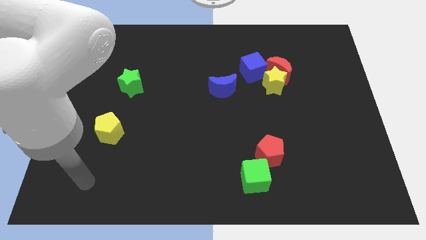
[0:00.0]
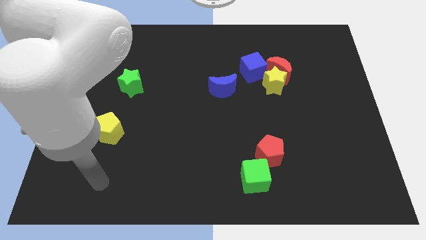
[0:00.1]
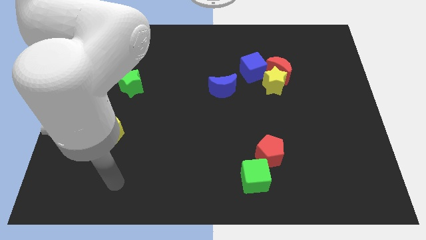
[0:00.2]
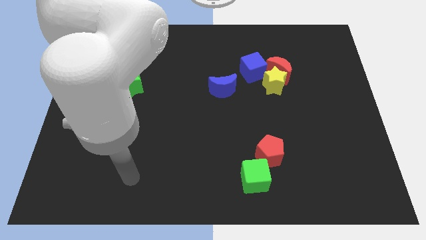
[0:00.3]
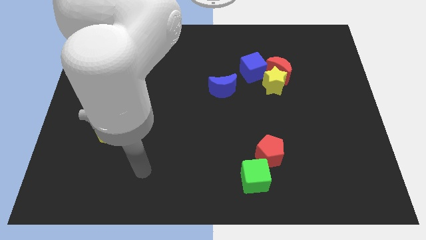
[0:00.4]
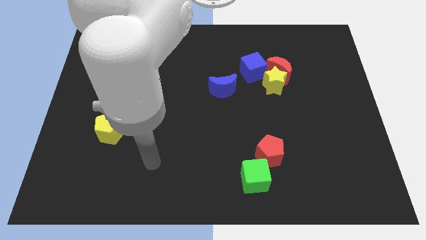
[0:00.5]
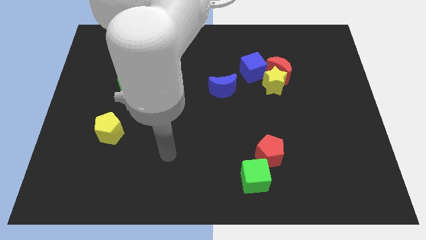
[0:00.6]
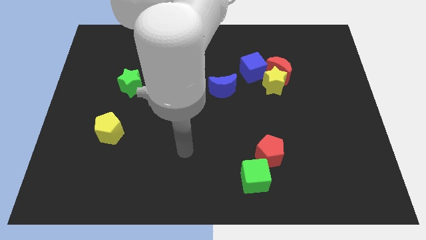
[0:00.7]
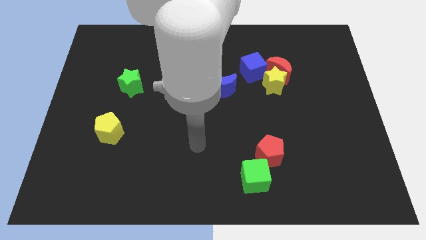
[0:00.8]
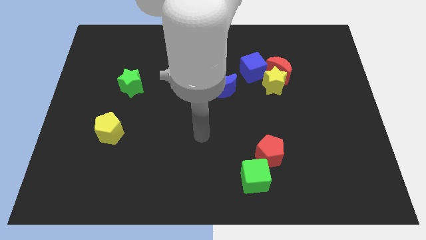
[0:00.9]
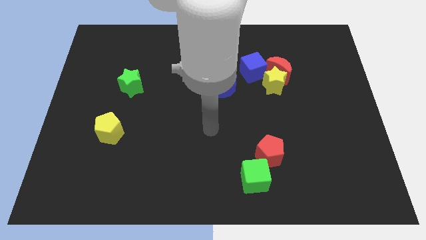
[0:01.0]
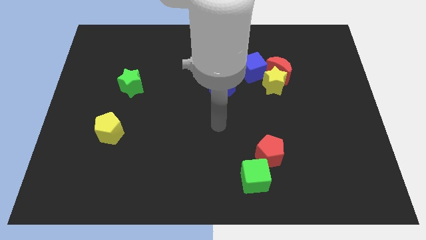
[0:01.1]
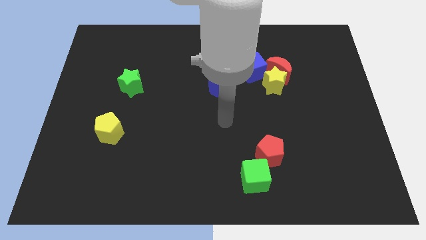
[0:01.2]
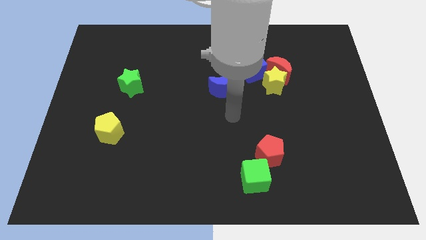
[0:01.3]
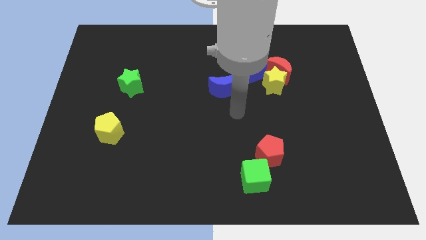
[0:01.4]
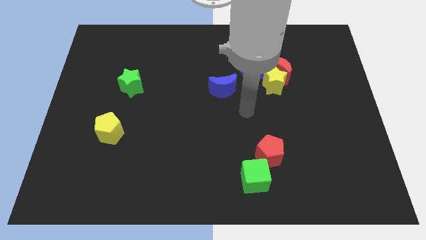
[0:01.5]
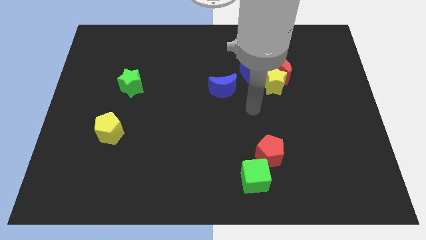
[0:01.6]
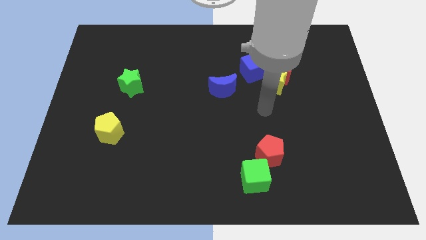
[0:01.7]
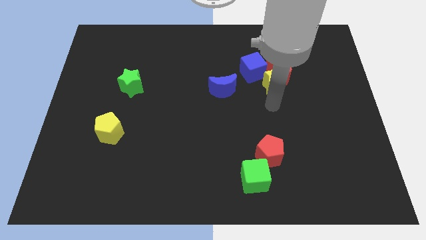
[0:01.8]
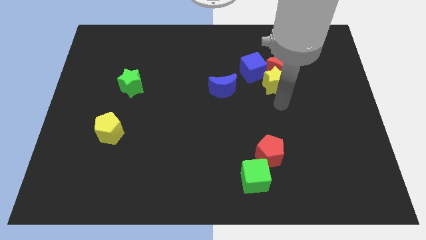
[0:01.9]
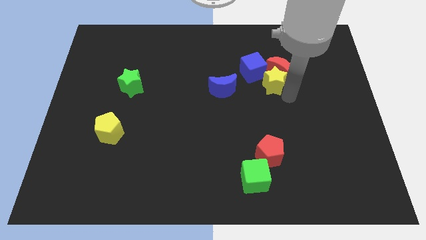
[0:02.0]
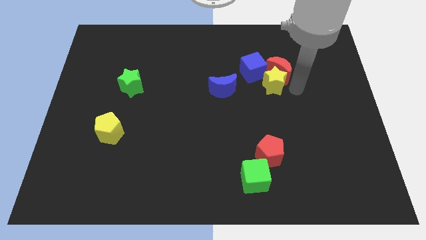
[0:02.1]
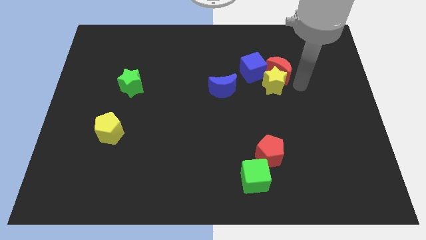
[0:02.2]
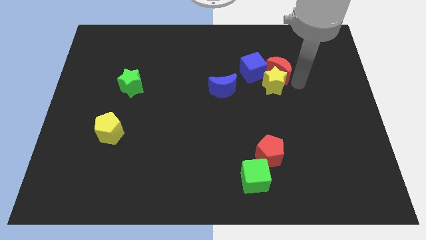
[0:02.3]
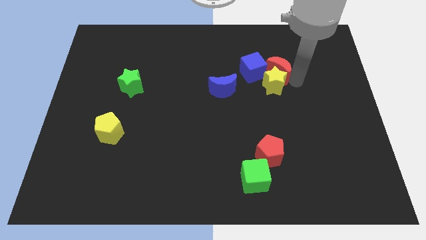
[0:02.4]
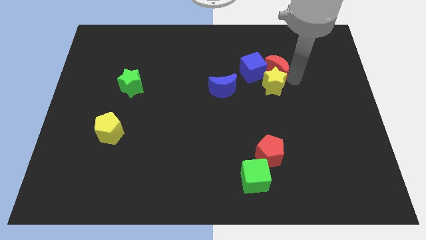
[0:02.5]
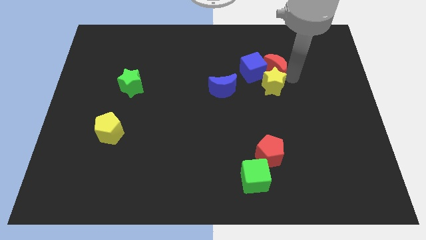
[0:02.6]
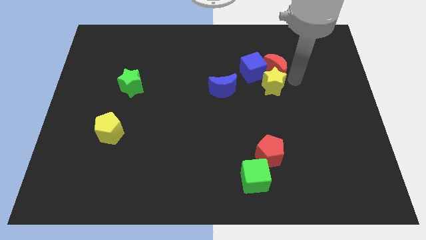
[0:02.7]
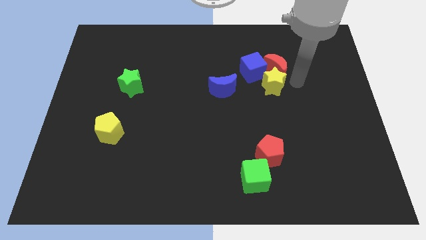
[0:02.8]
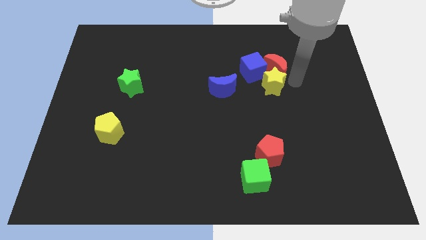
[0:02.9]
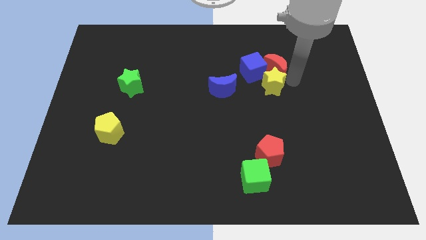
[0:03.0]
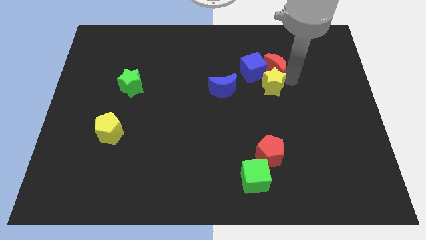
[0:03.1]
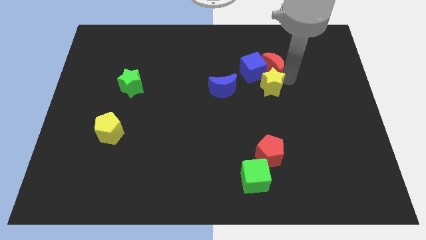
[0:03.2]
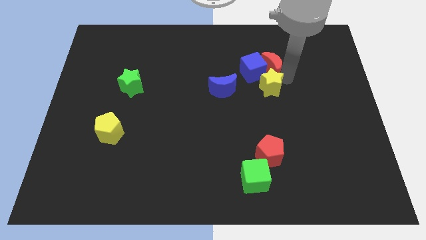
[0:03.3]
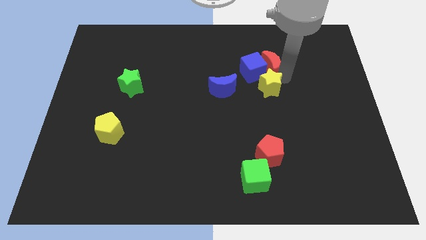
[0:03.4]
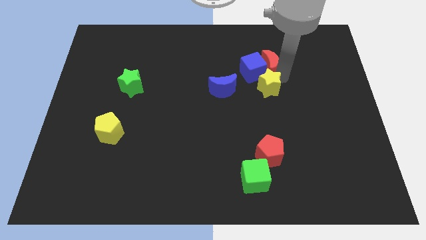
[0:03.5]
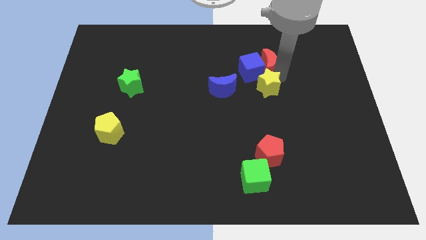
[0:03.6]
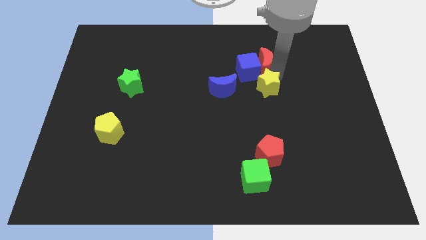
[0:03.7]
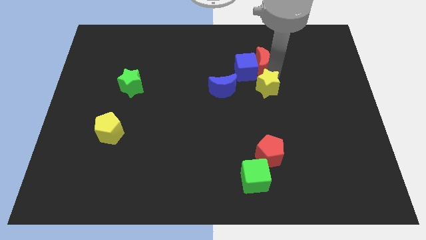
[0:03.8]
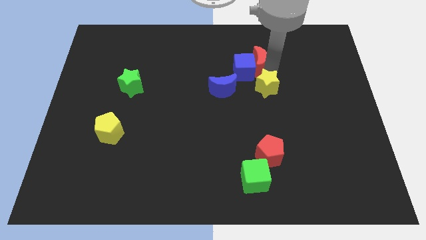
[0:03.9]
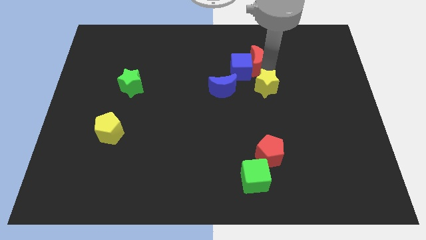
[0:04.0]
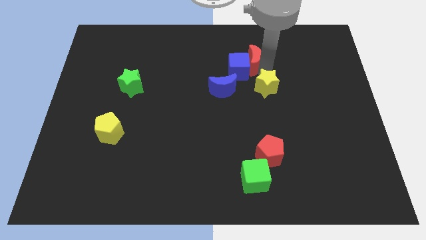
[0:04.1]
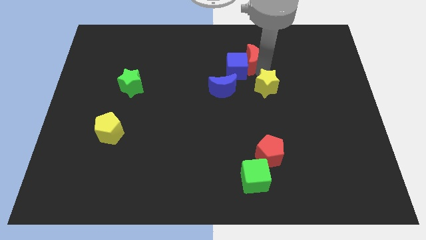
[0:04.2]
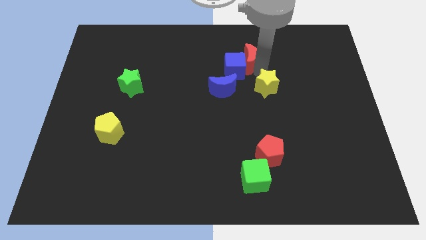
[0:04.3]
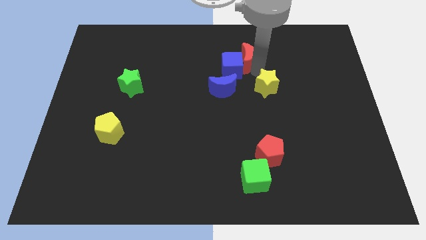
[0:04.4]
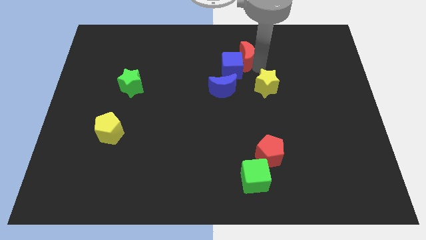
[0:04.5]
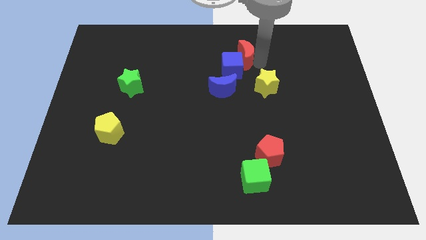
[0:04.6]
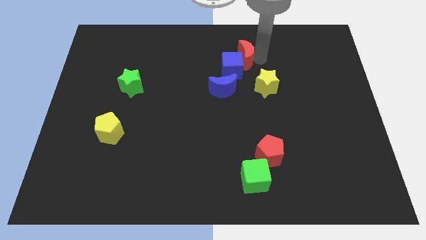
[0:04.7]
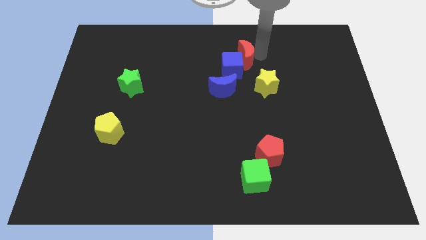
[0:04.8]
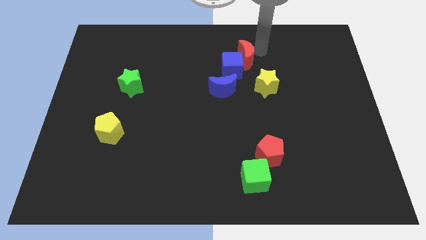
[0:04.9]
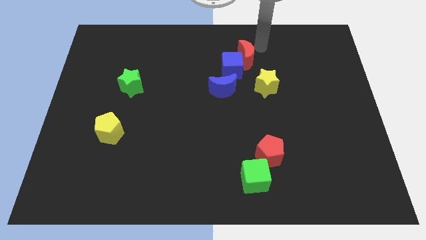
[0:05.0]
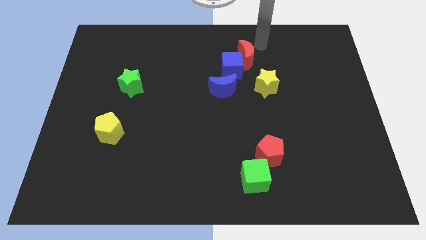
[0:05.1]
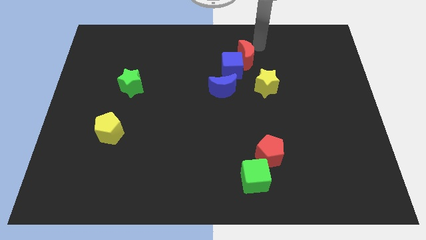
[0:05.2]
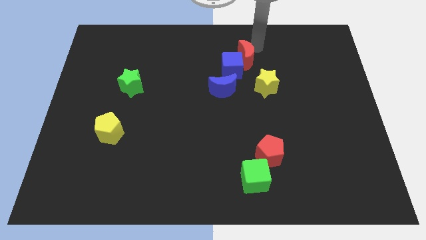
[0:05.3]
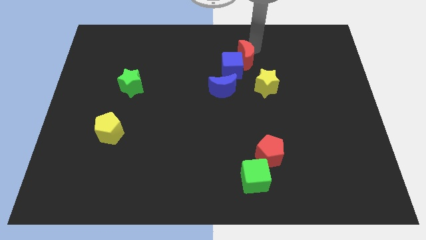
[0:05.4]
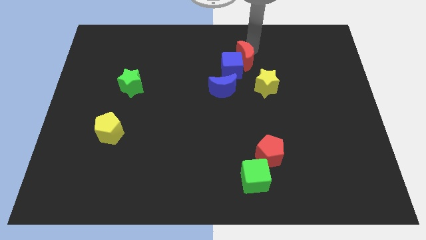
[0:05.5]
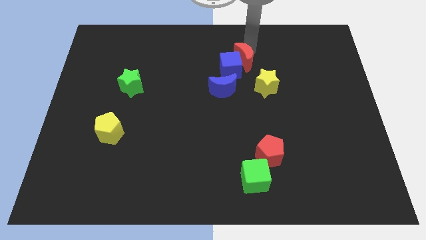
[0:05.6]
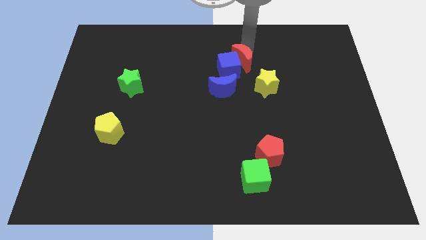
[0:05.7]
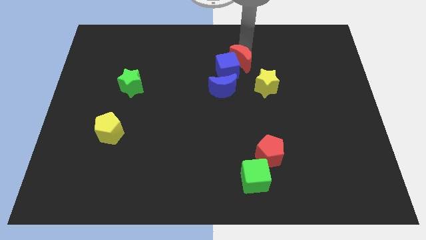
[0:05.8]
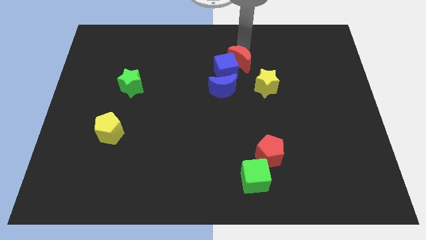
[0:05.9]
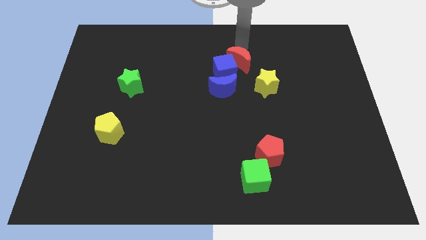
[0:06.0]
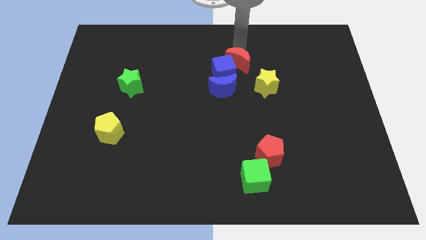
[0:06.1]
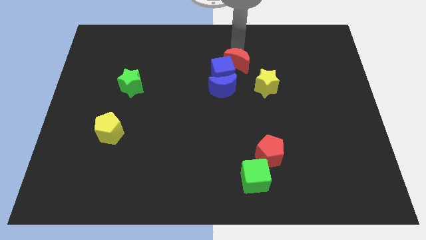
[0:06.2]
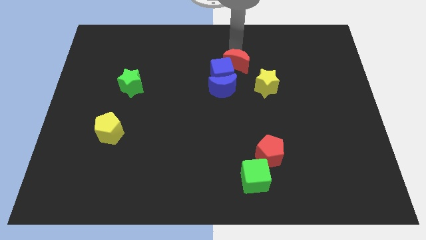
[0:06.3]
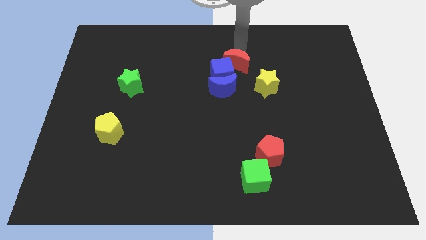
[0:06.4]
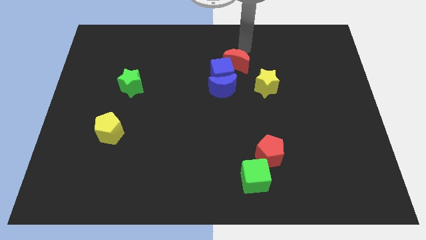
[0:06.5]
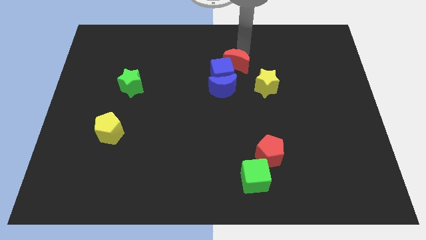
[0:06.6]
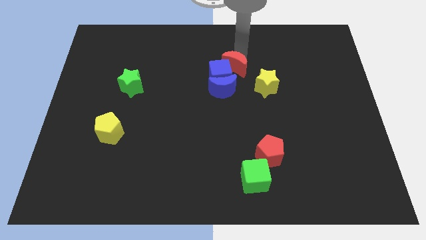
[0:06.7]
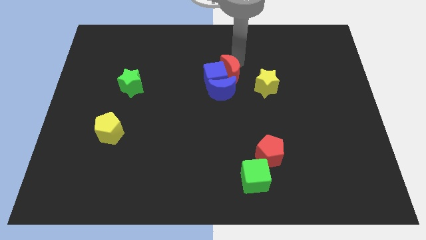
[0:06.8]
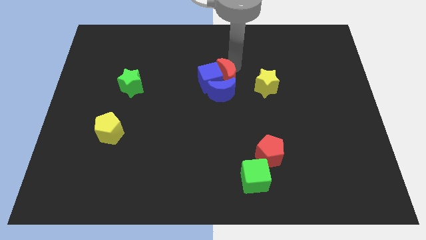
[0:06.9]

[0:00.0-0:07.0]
push the red moon next to the blue moon
